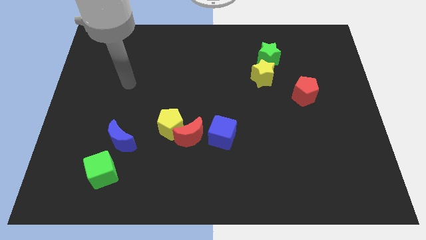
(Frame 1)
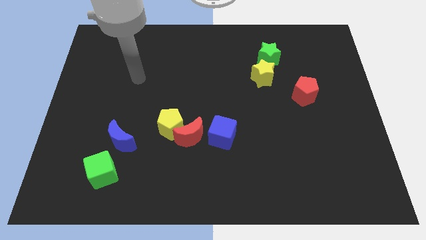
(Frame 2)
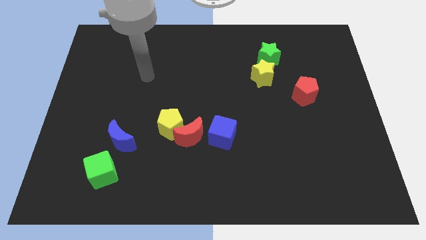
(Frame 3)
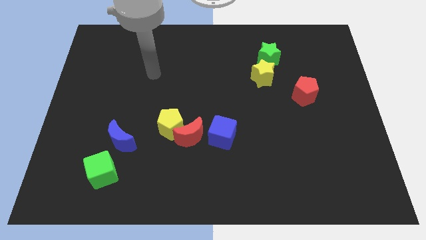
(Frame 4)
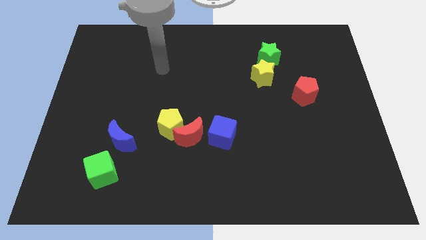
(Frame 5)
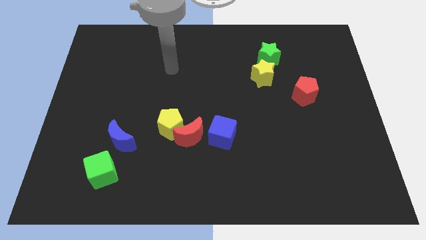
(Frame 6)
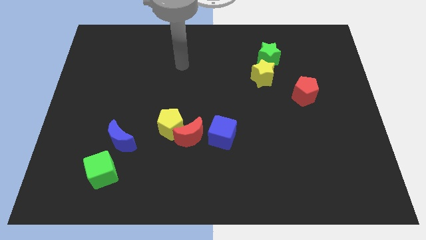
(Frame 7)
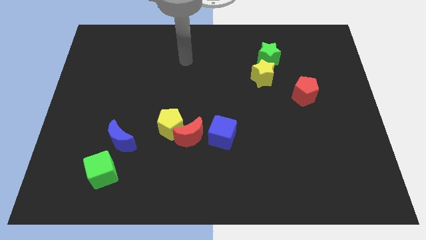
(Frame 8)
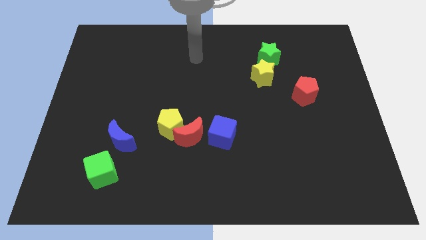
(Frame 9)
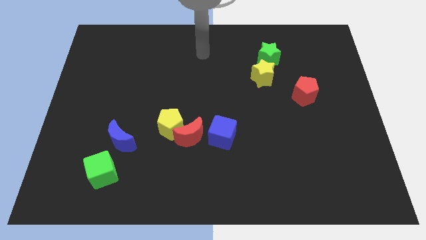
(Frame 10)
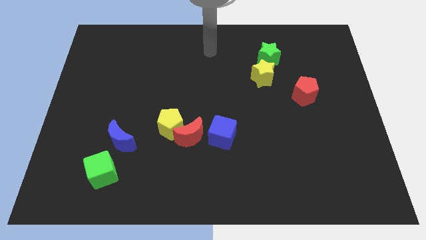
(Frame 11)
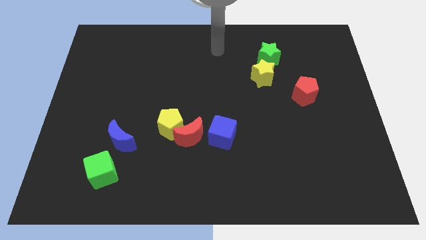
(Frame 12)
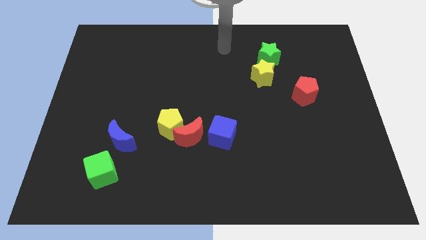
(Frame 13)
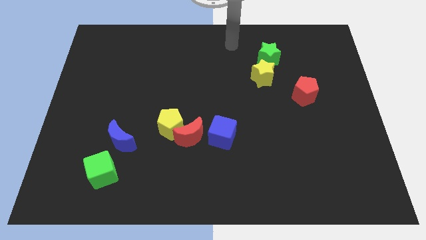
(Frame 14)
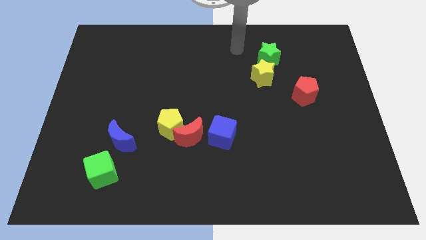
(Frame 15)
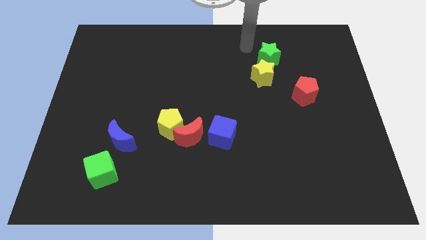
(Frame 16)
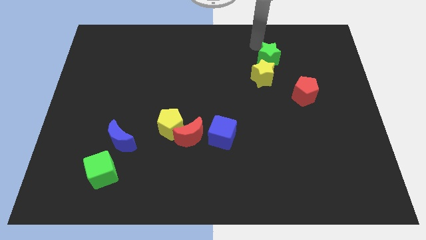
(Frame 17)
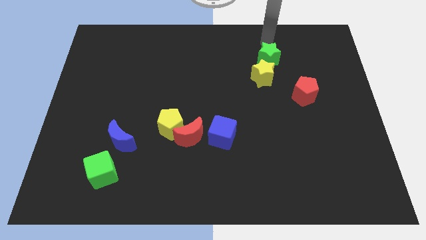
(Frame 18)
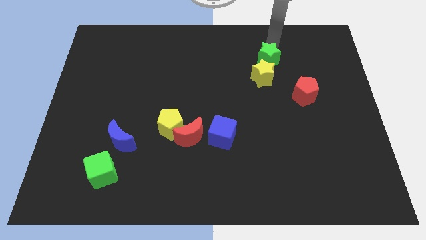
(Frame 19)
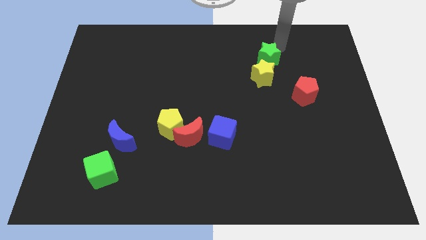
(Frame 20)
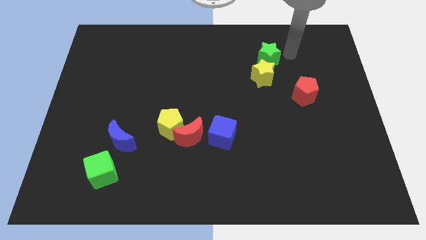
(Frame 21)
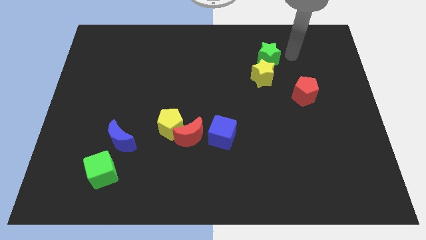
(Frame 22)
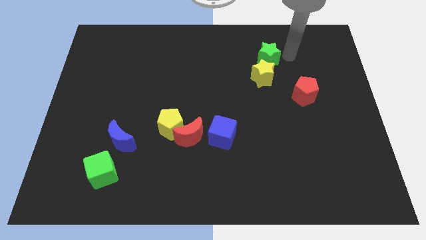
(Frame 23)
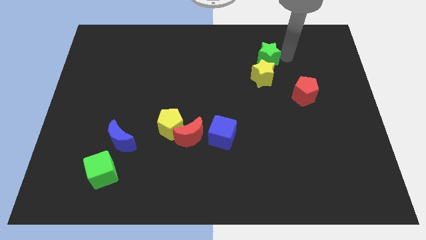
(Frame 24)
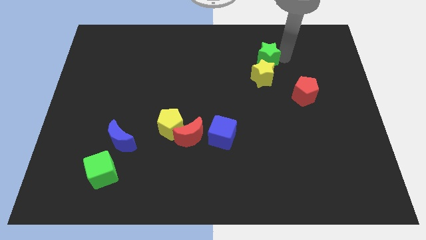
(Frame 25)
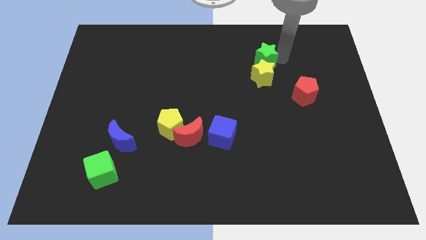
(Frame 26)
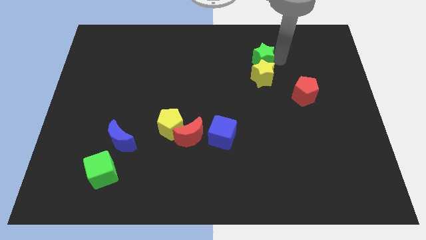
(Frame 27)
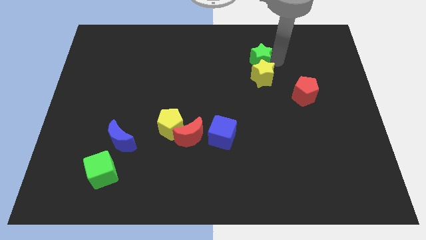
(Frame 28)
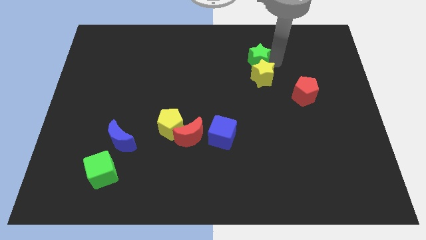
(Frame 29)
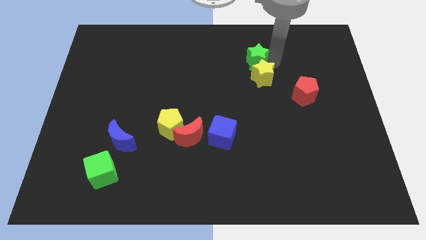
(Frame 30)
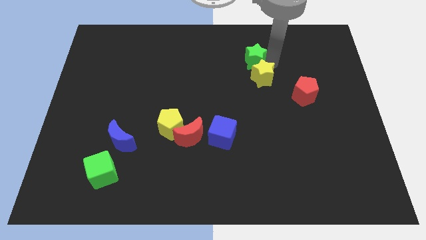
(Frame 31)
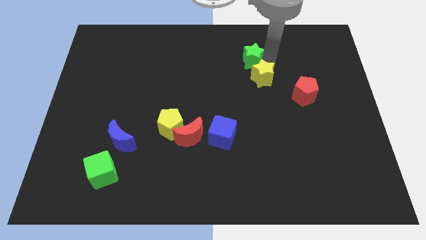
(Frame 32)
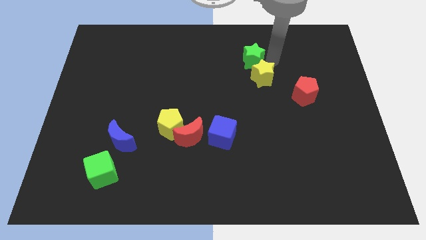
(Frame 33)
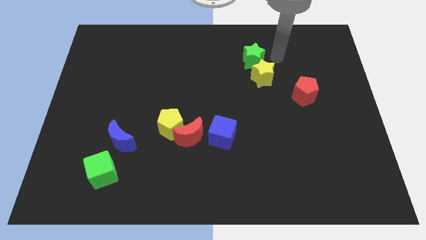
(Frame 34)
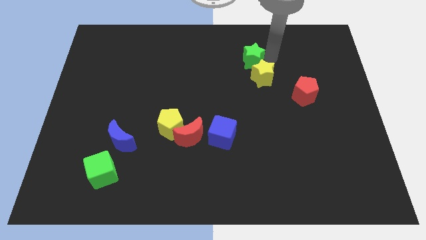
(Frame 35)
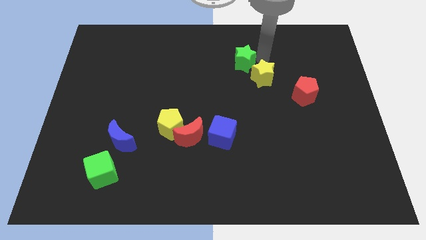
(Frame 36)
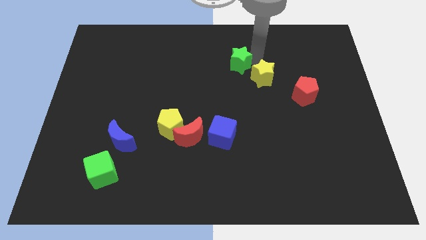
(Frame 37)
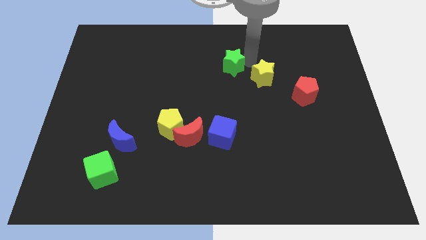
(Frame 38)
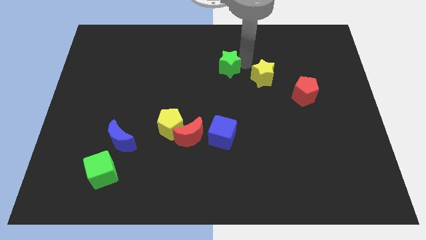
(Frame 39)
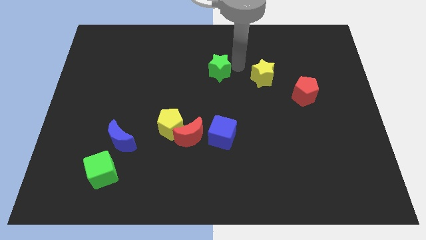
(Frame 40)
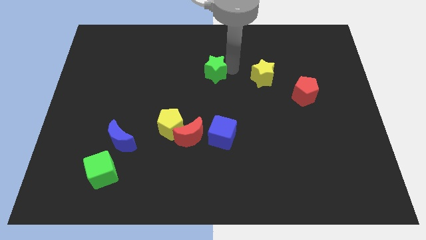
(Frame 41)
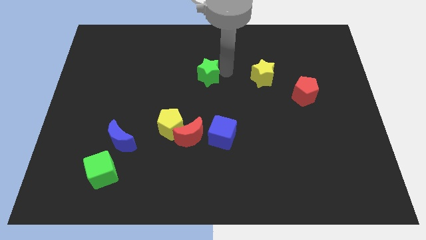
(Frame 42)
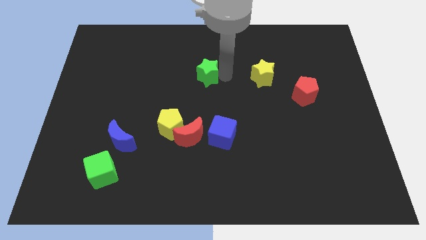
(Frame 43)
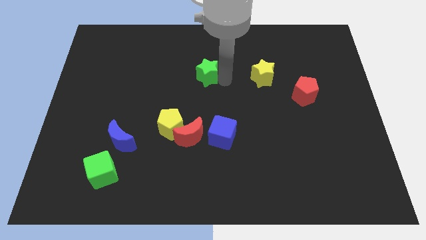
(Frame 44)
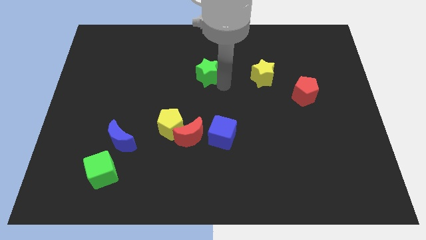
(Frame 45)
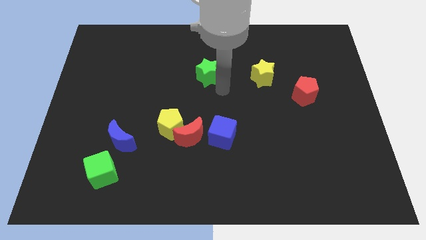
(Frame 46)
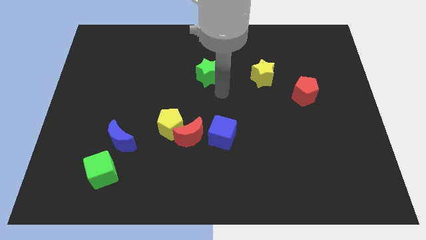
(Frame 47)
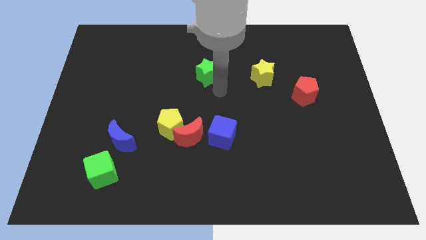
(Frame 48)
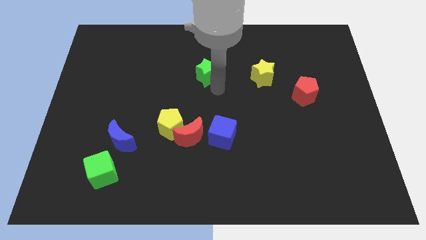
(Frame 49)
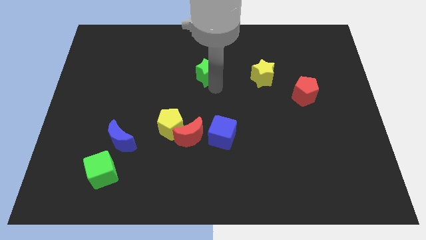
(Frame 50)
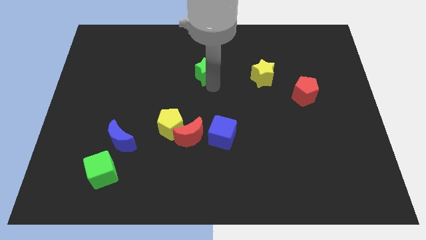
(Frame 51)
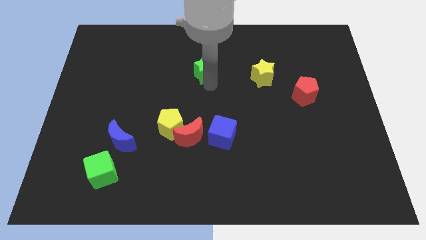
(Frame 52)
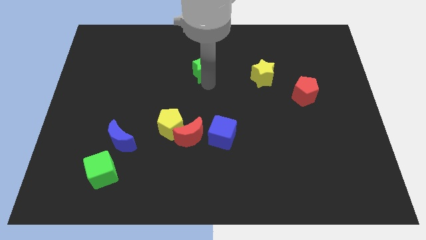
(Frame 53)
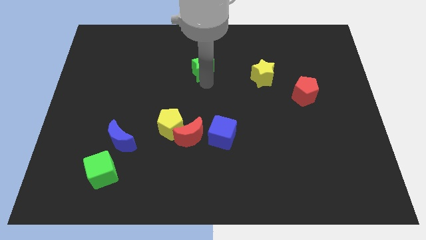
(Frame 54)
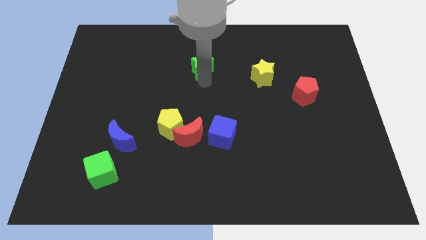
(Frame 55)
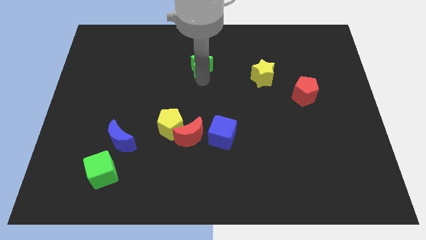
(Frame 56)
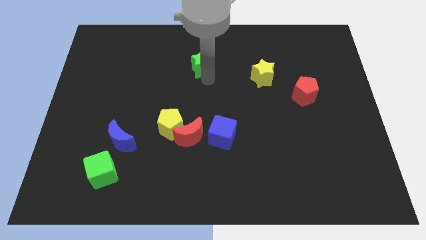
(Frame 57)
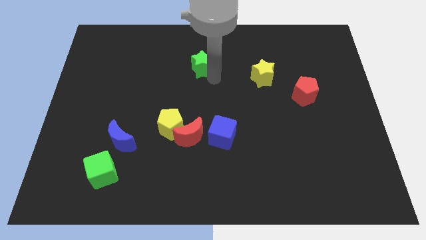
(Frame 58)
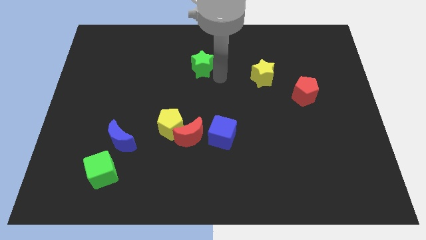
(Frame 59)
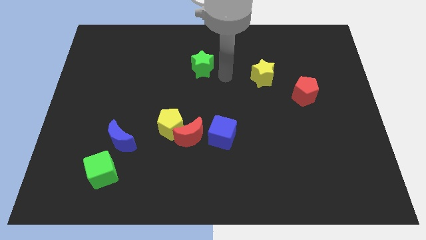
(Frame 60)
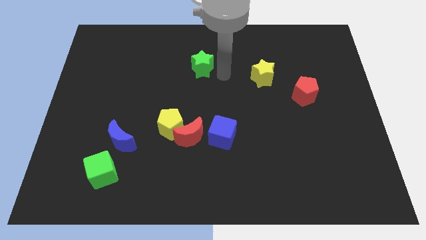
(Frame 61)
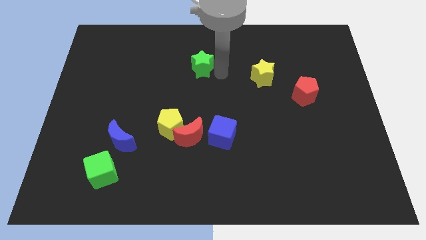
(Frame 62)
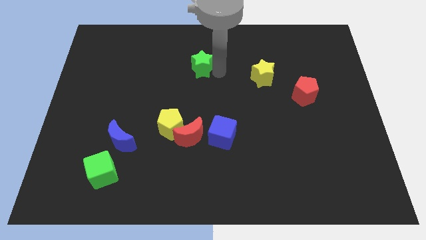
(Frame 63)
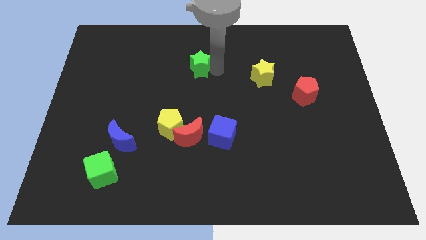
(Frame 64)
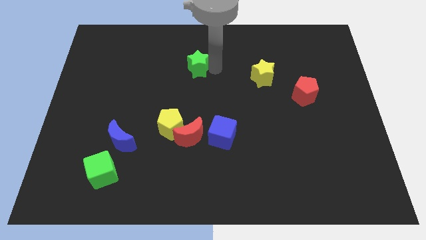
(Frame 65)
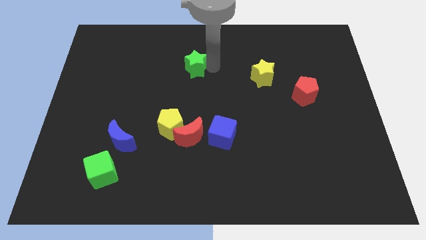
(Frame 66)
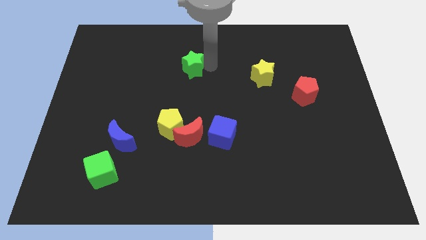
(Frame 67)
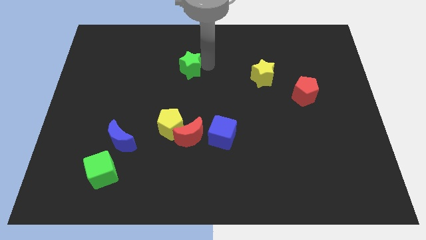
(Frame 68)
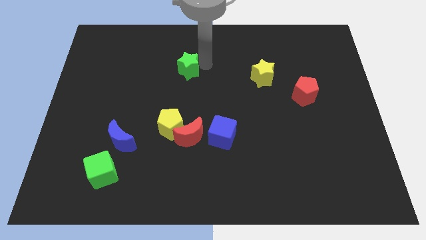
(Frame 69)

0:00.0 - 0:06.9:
move the green star left

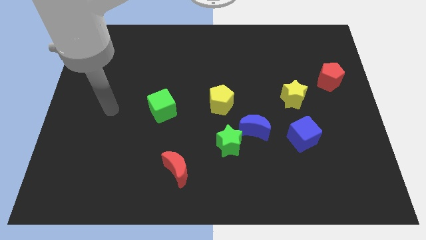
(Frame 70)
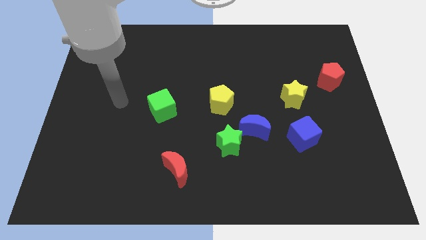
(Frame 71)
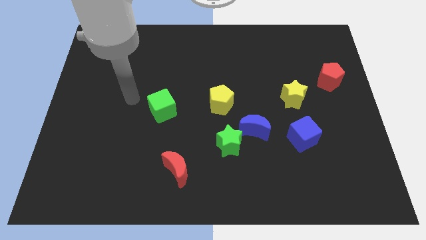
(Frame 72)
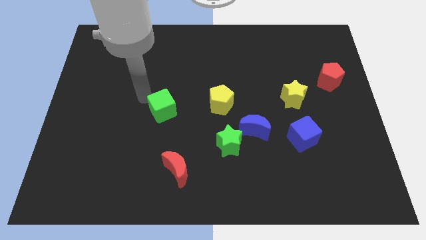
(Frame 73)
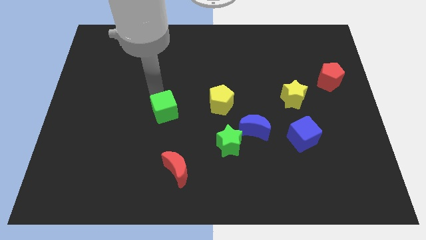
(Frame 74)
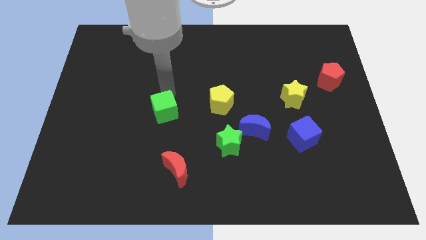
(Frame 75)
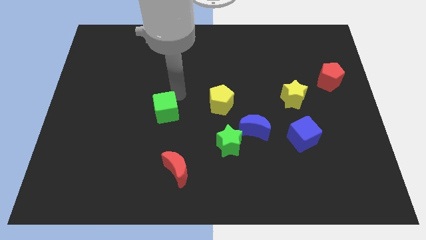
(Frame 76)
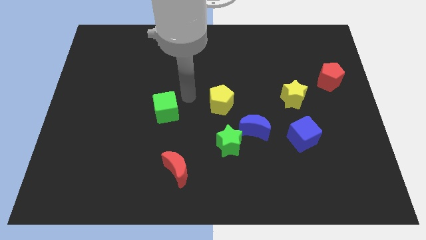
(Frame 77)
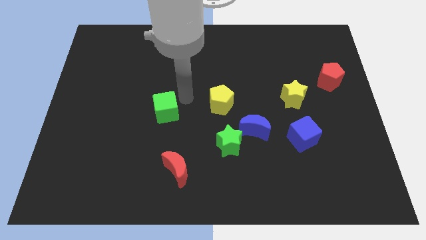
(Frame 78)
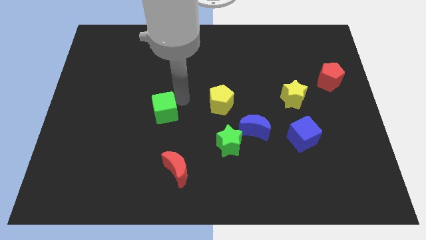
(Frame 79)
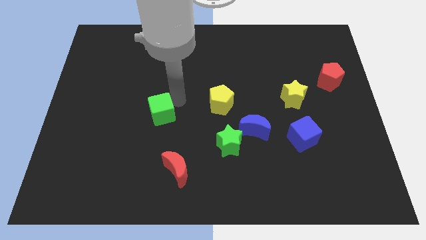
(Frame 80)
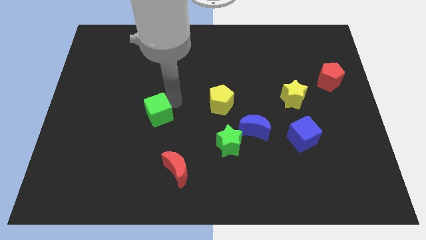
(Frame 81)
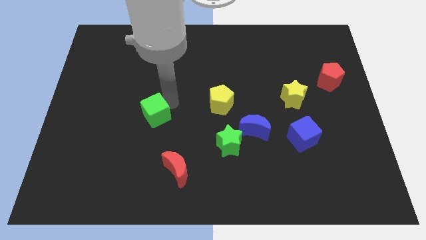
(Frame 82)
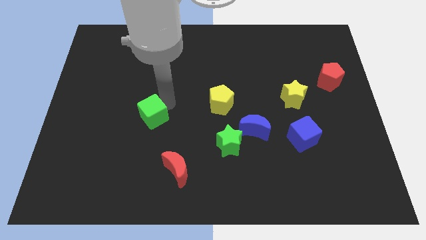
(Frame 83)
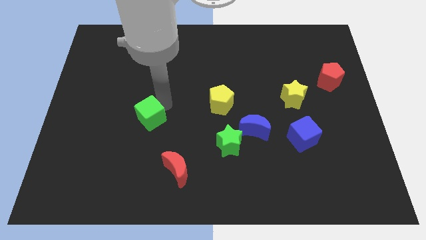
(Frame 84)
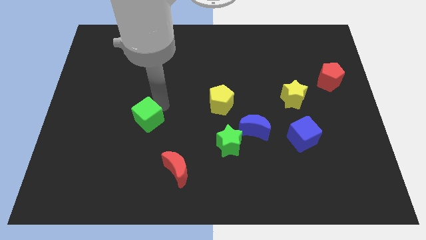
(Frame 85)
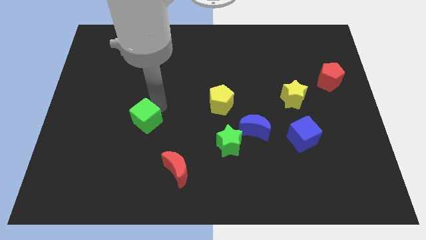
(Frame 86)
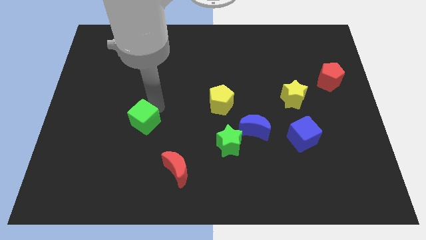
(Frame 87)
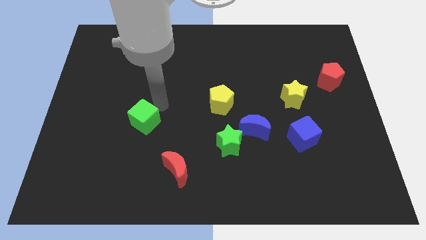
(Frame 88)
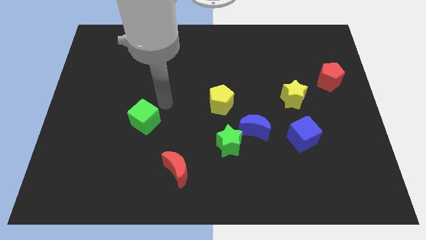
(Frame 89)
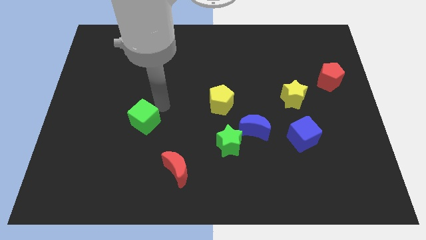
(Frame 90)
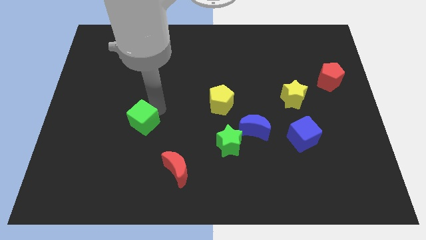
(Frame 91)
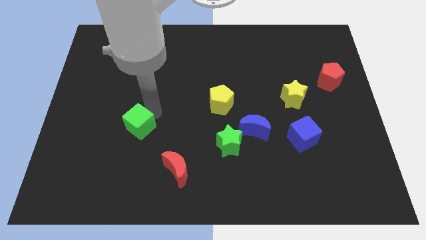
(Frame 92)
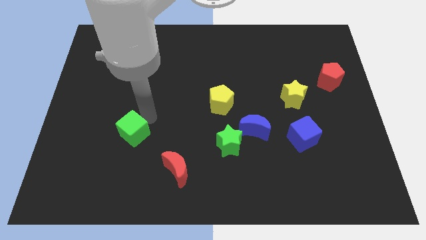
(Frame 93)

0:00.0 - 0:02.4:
move the green cube slightly down and then left
